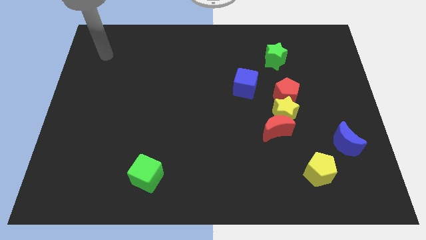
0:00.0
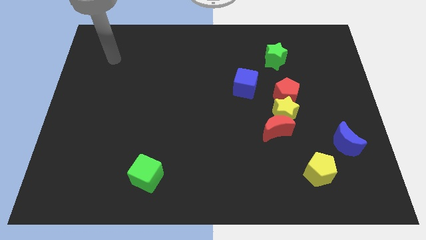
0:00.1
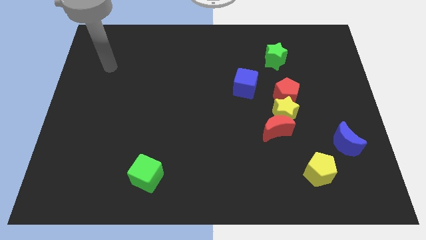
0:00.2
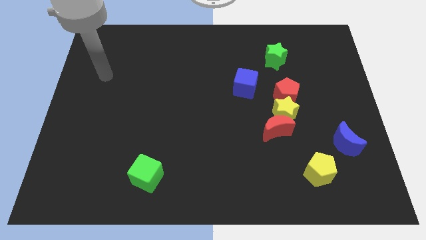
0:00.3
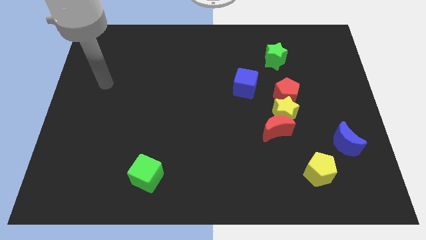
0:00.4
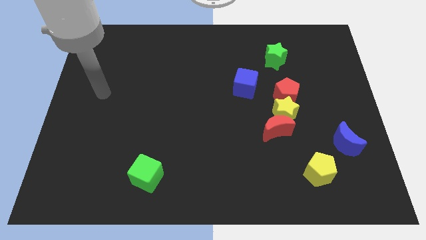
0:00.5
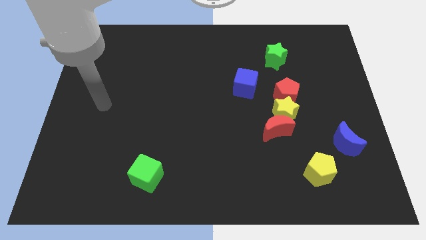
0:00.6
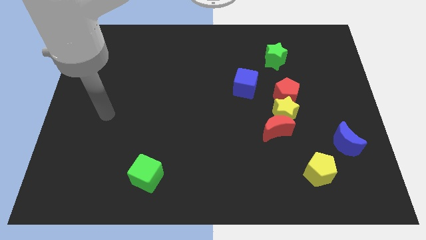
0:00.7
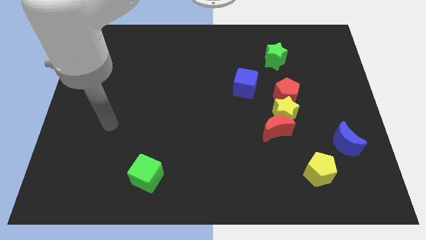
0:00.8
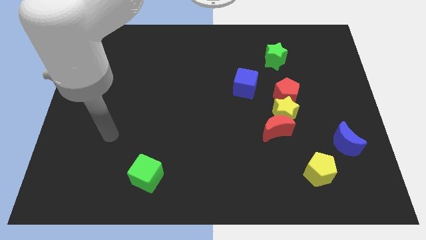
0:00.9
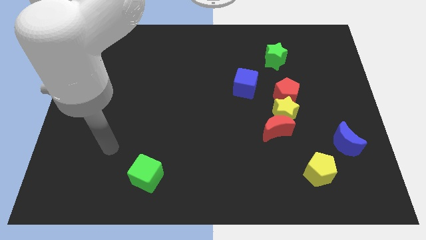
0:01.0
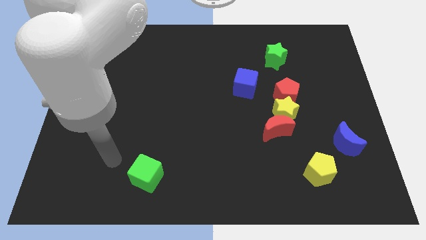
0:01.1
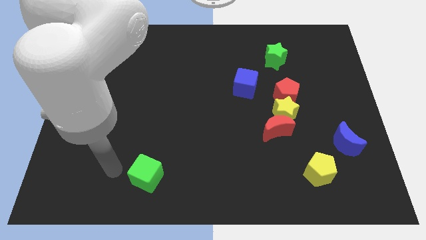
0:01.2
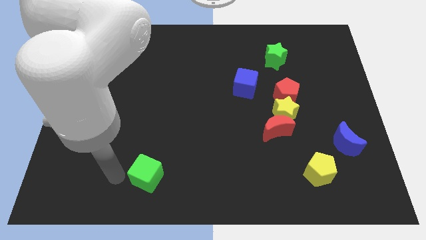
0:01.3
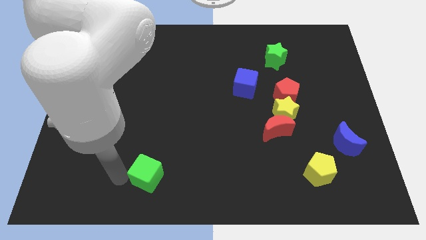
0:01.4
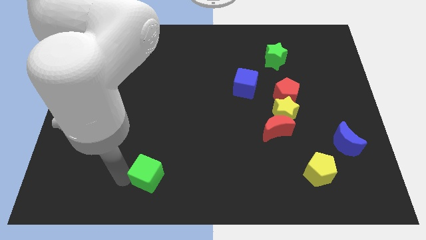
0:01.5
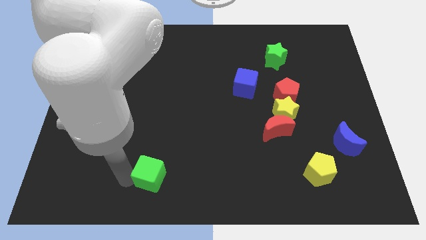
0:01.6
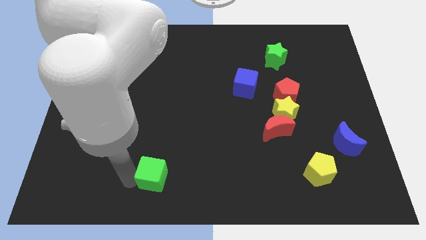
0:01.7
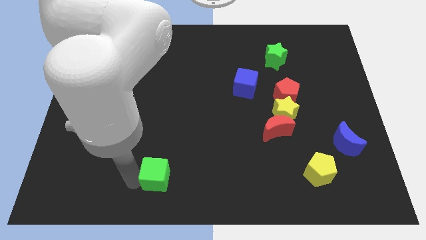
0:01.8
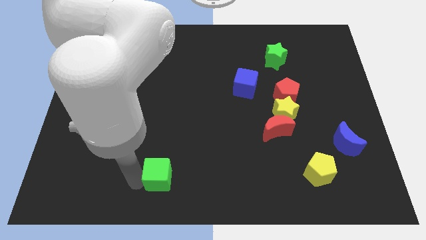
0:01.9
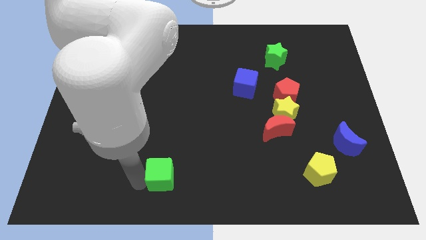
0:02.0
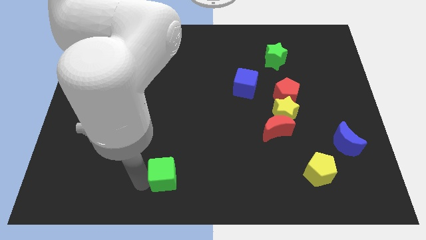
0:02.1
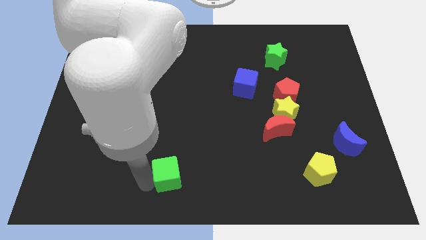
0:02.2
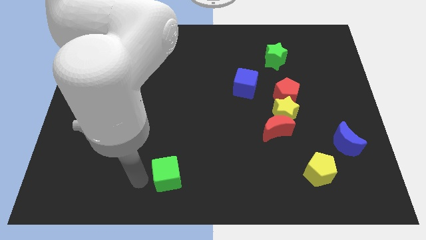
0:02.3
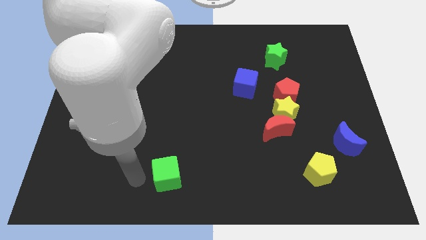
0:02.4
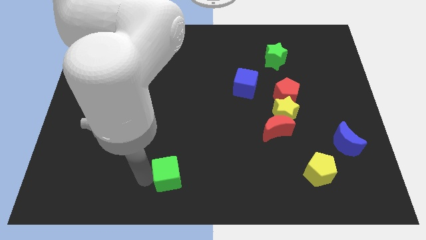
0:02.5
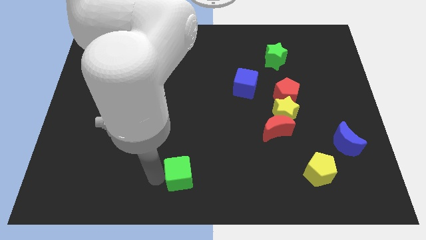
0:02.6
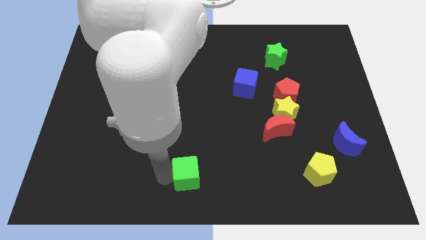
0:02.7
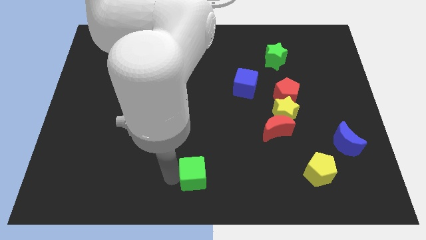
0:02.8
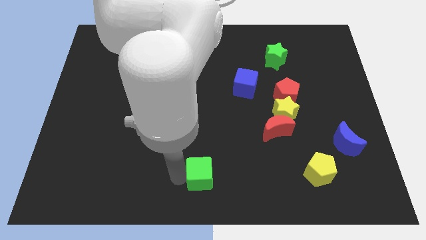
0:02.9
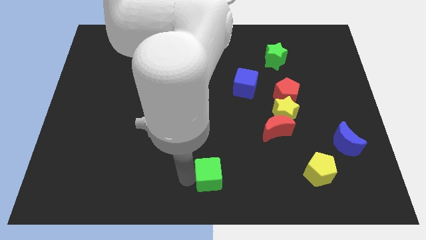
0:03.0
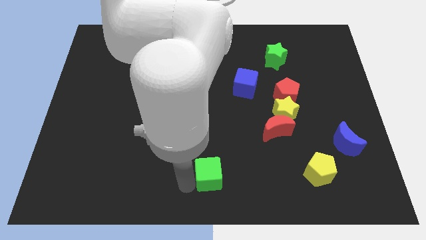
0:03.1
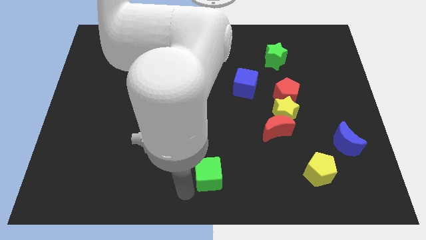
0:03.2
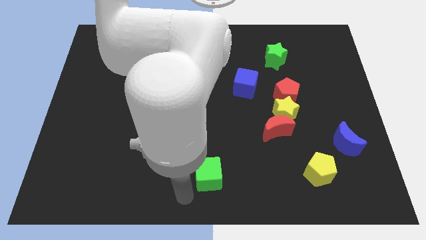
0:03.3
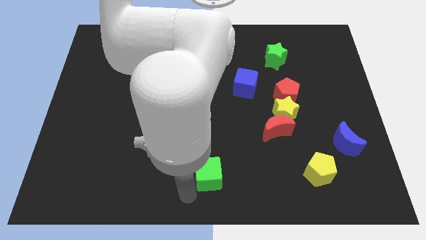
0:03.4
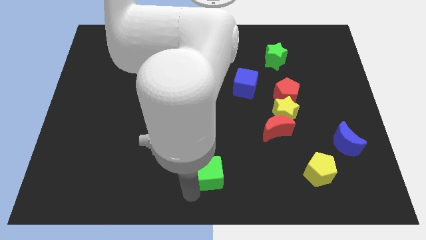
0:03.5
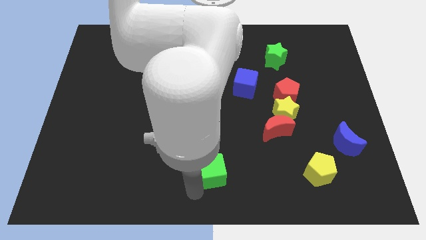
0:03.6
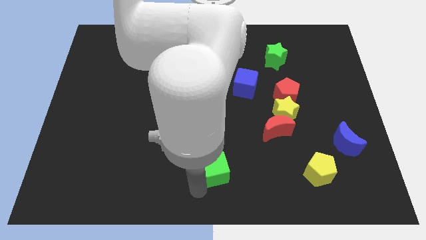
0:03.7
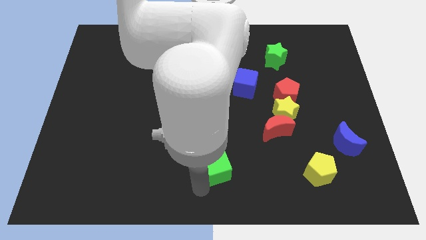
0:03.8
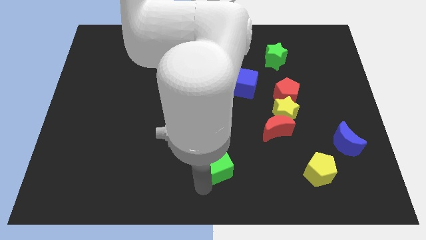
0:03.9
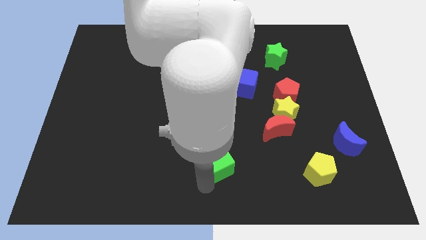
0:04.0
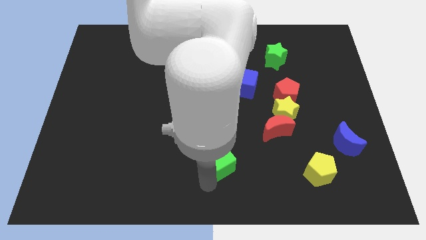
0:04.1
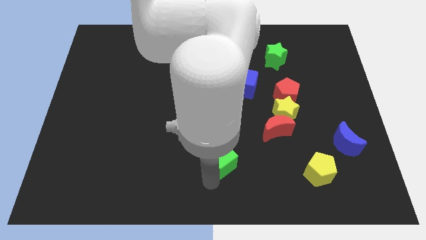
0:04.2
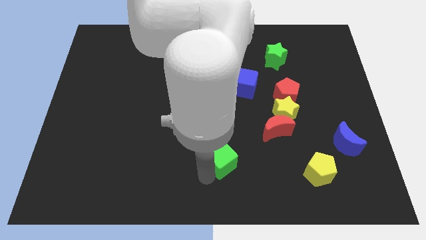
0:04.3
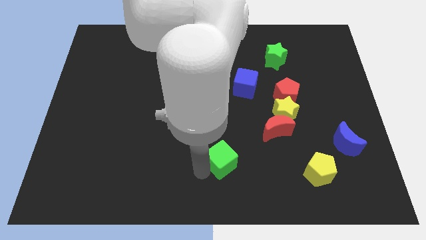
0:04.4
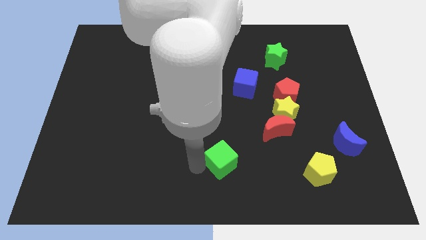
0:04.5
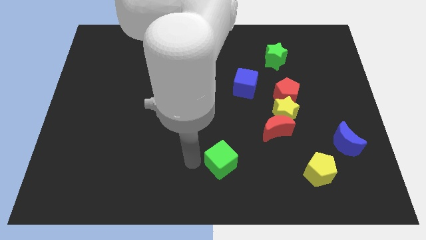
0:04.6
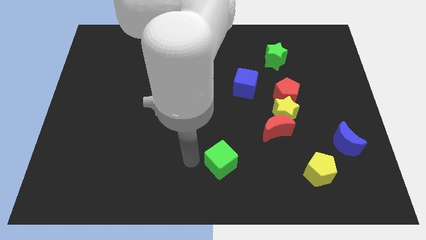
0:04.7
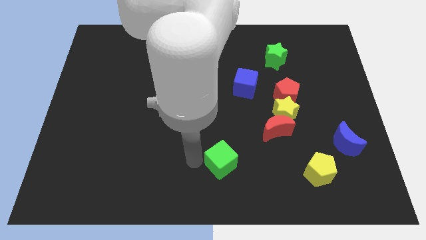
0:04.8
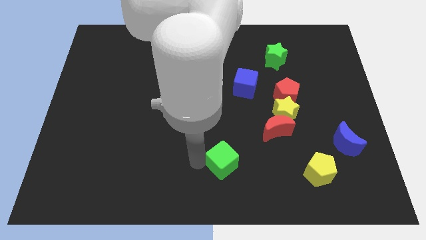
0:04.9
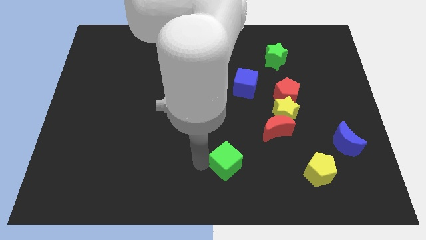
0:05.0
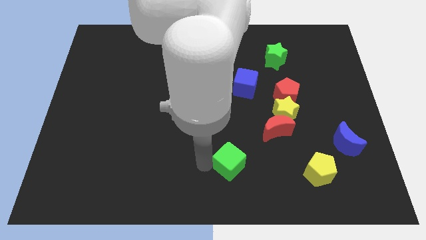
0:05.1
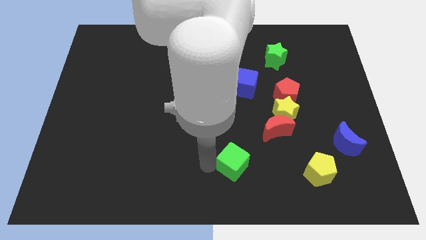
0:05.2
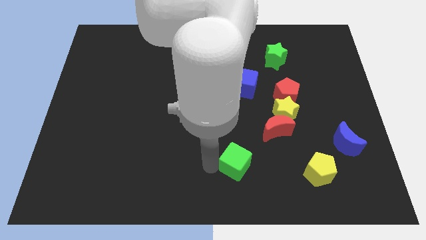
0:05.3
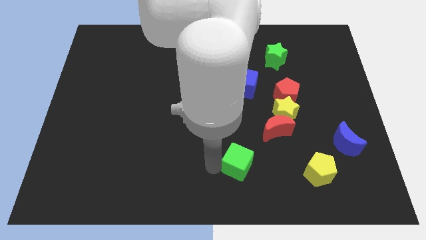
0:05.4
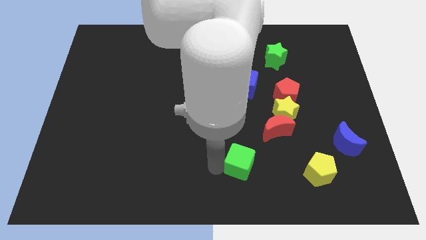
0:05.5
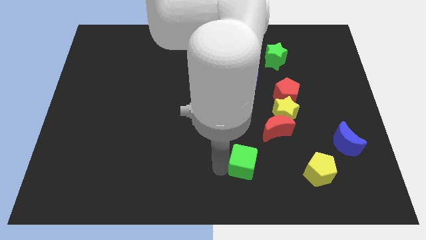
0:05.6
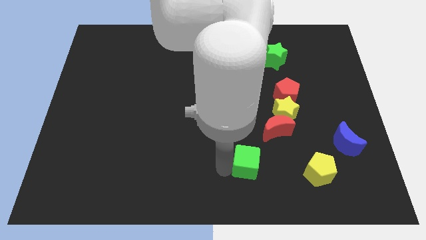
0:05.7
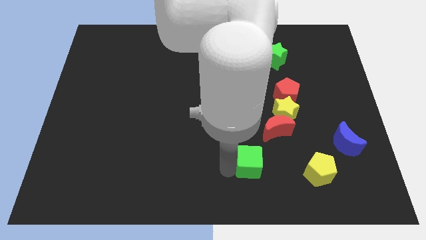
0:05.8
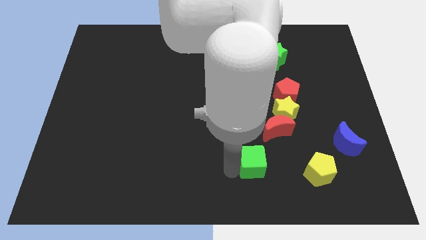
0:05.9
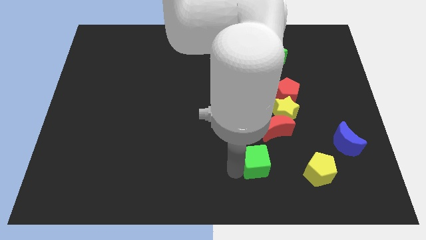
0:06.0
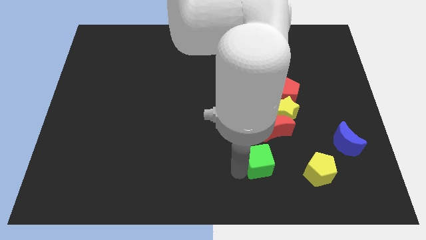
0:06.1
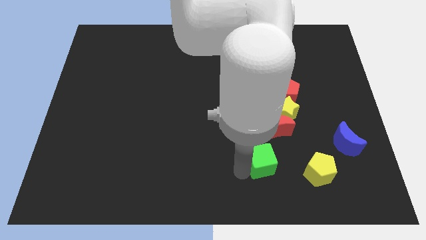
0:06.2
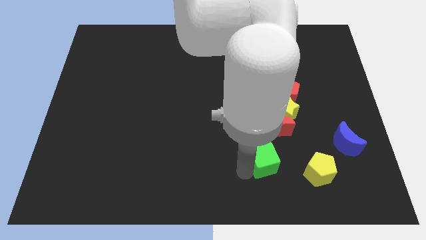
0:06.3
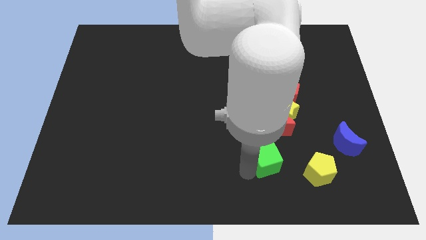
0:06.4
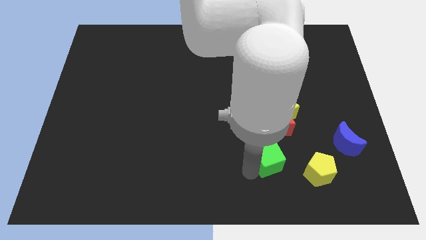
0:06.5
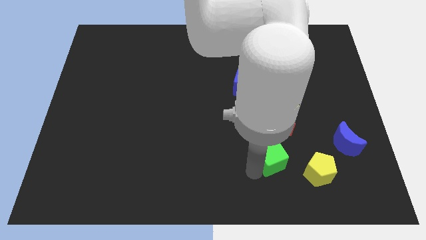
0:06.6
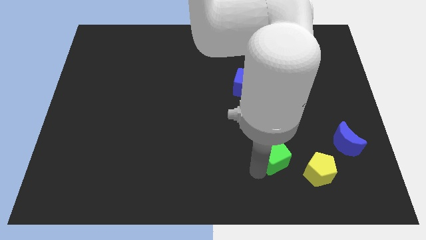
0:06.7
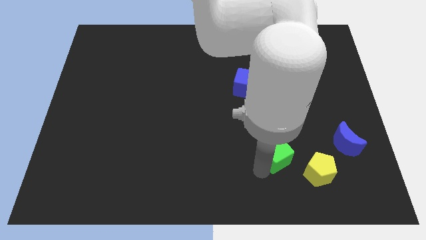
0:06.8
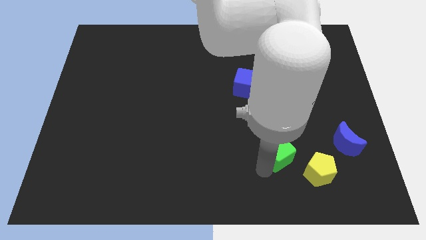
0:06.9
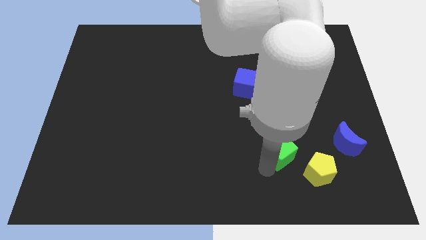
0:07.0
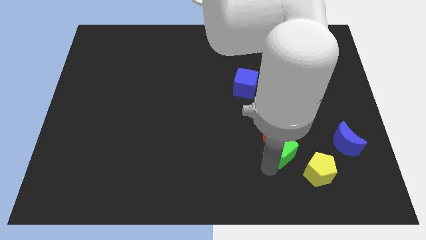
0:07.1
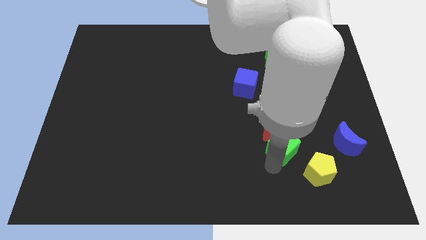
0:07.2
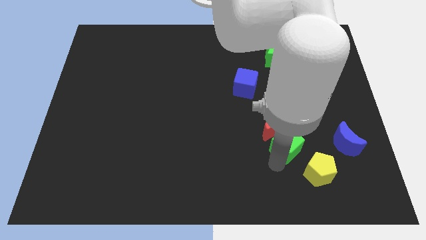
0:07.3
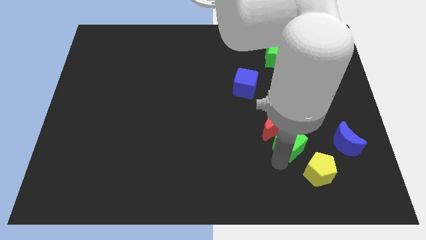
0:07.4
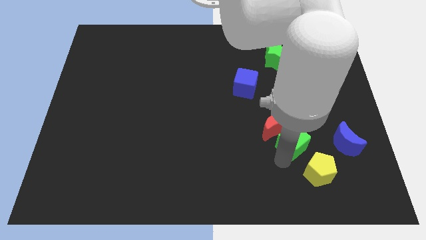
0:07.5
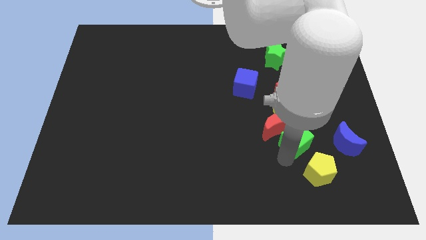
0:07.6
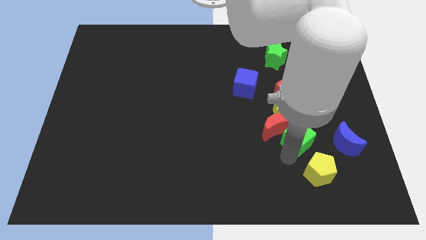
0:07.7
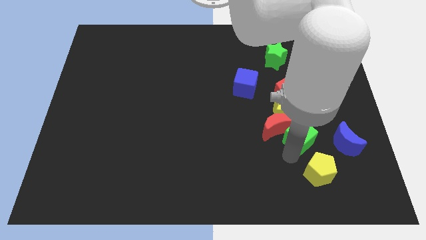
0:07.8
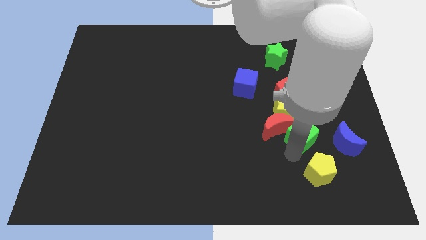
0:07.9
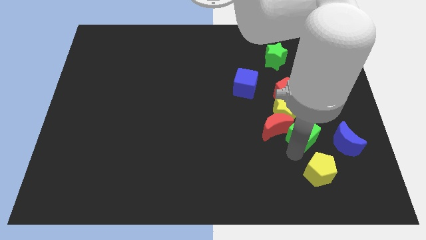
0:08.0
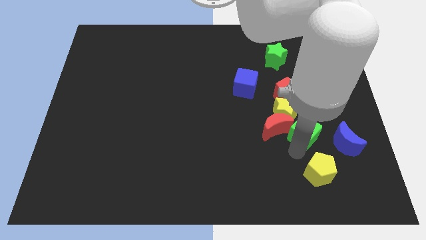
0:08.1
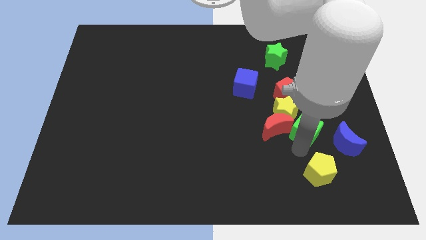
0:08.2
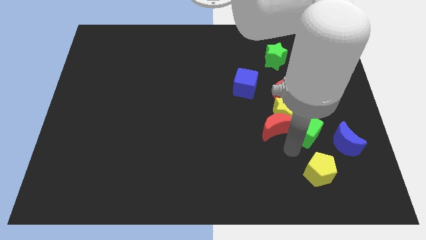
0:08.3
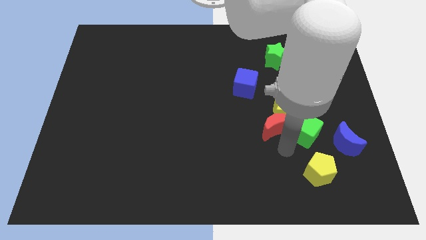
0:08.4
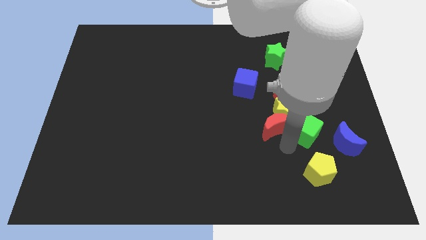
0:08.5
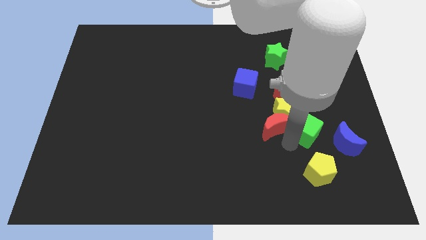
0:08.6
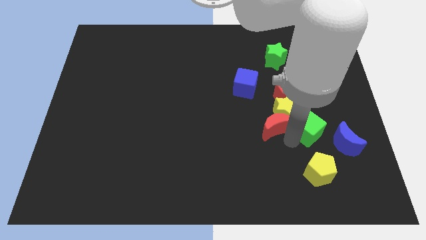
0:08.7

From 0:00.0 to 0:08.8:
put the green cube just right of the yellow star
